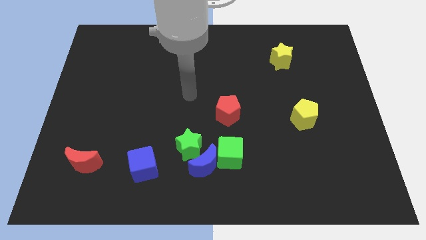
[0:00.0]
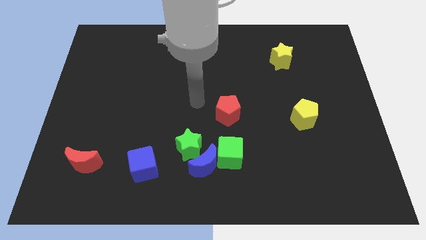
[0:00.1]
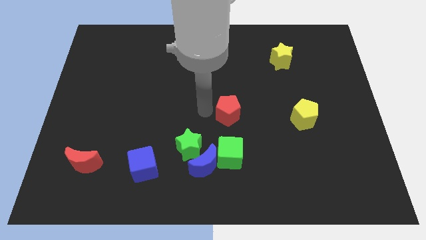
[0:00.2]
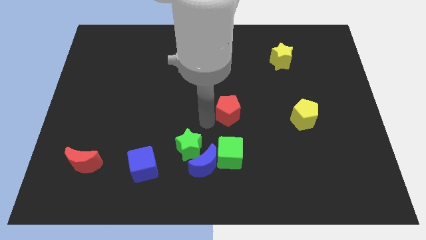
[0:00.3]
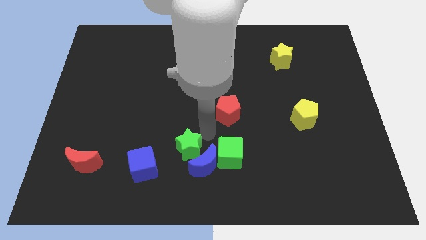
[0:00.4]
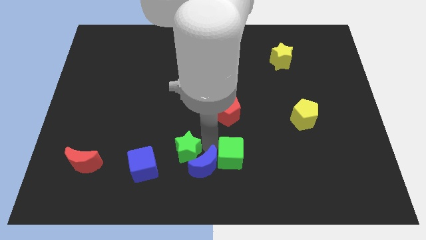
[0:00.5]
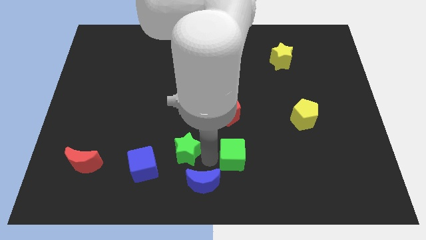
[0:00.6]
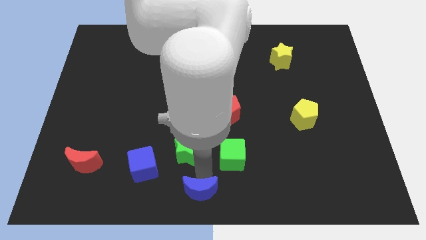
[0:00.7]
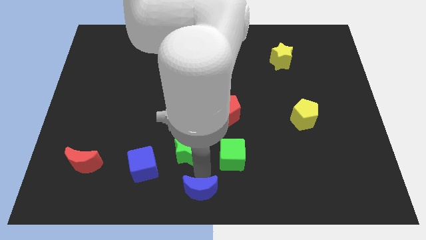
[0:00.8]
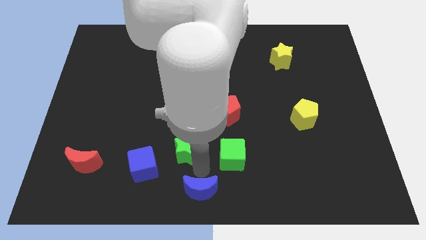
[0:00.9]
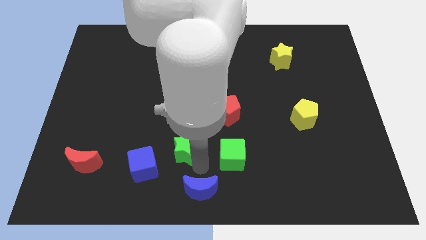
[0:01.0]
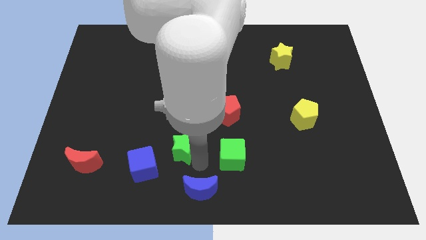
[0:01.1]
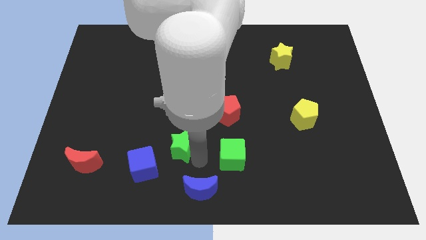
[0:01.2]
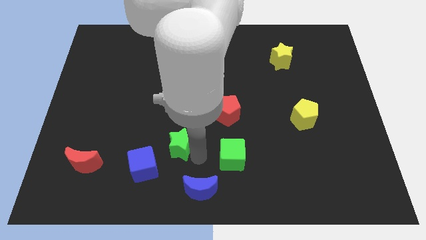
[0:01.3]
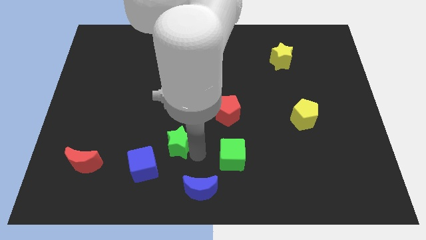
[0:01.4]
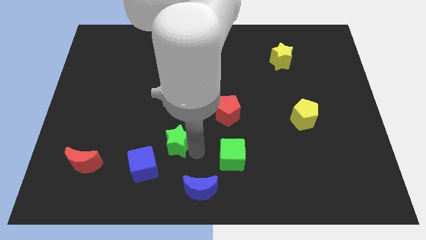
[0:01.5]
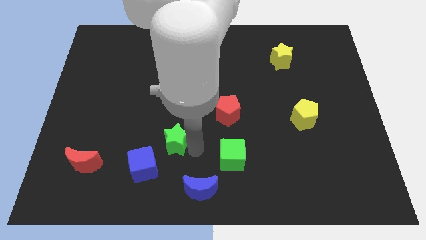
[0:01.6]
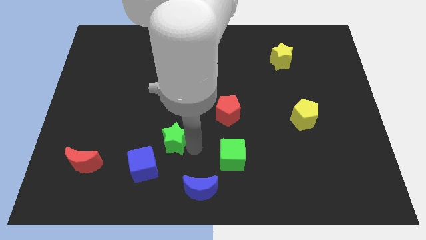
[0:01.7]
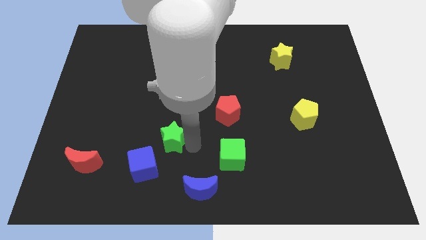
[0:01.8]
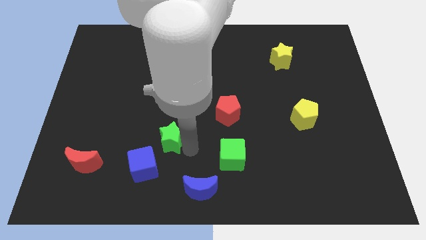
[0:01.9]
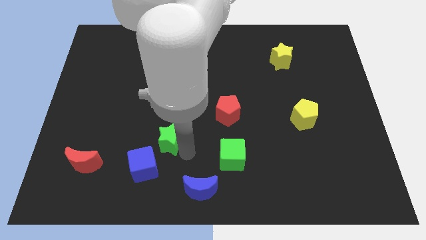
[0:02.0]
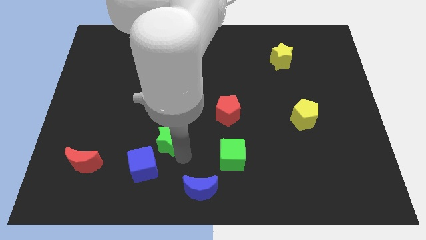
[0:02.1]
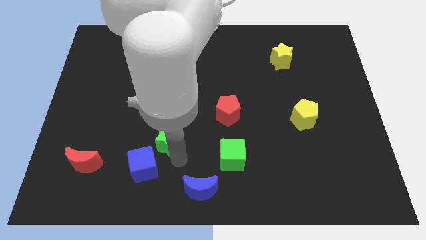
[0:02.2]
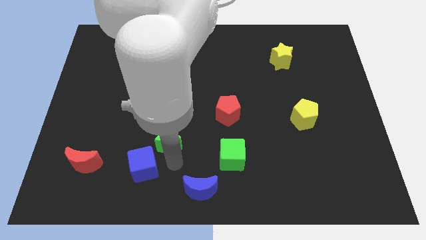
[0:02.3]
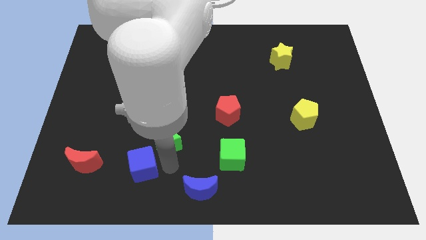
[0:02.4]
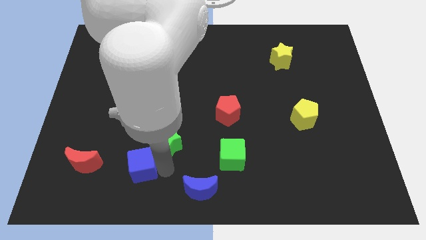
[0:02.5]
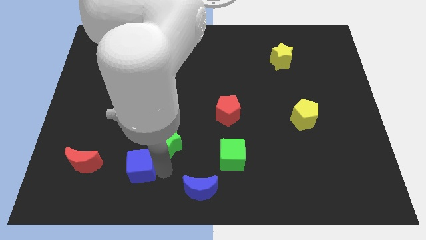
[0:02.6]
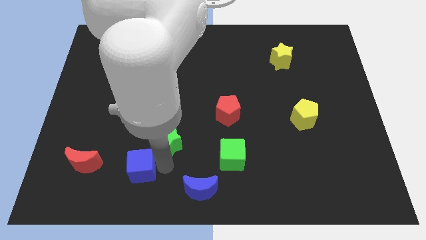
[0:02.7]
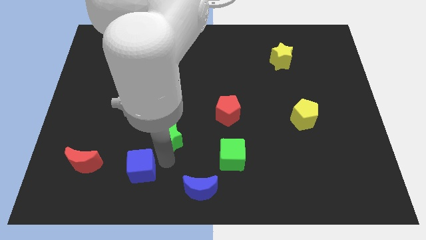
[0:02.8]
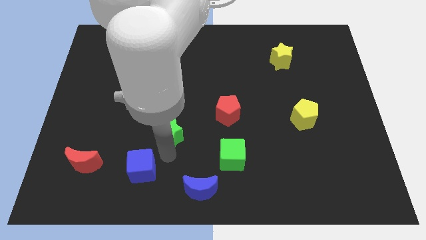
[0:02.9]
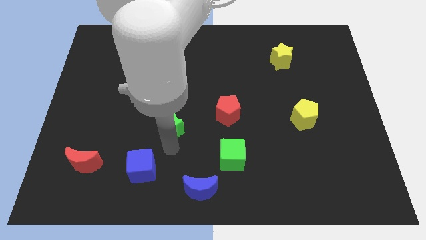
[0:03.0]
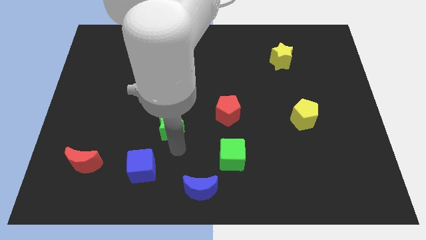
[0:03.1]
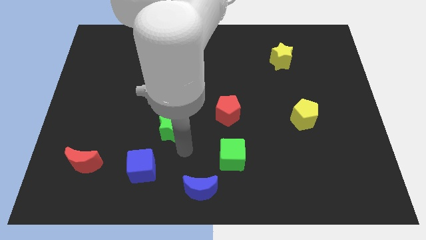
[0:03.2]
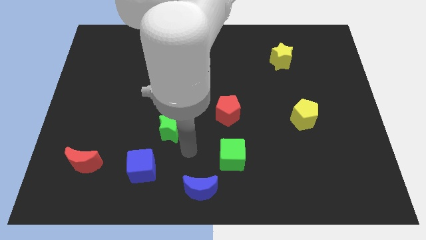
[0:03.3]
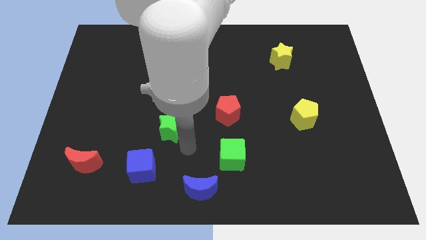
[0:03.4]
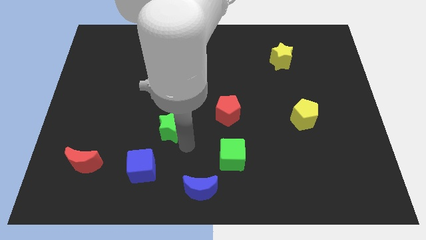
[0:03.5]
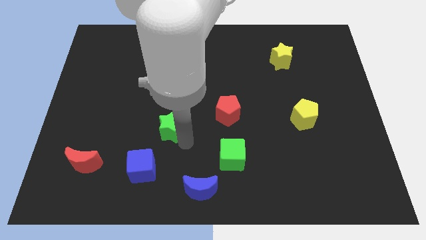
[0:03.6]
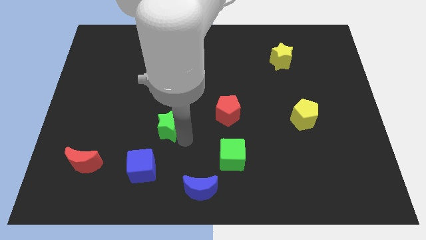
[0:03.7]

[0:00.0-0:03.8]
slide the green star somewhat diagonally upwards and to the left

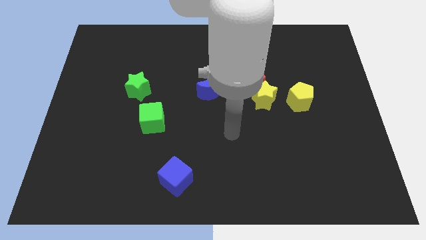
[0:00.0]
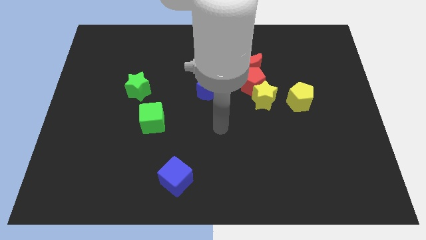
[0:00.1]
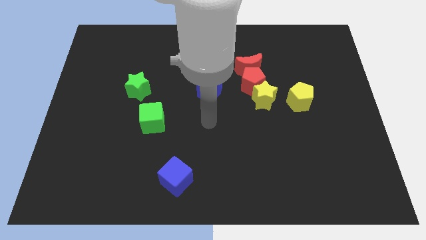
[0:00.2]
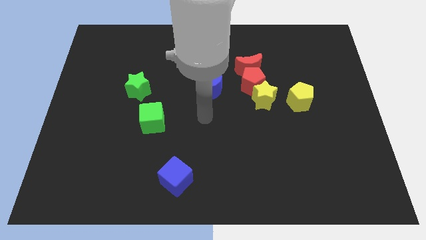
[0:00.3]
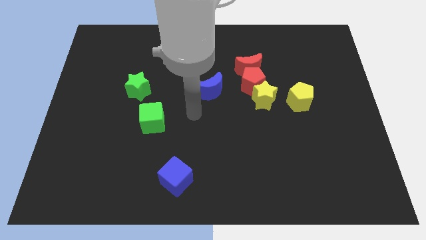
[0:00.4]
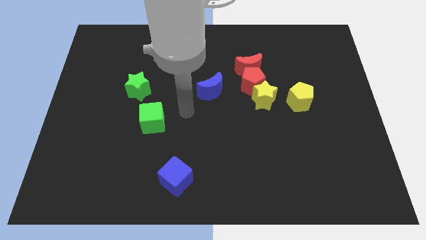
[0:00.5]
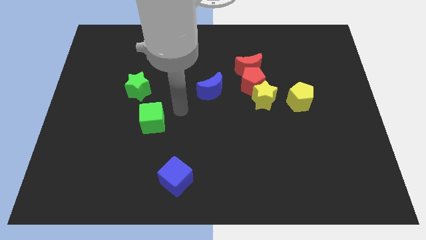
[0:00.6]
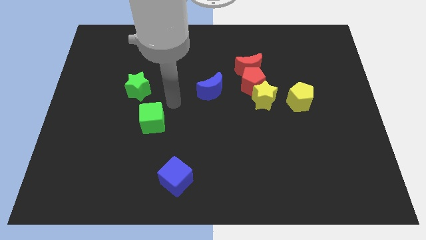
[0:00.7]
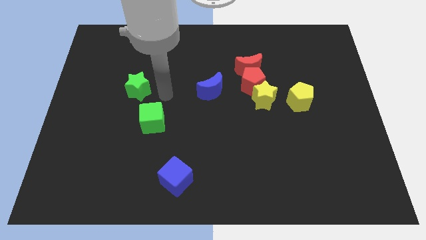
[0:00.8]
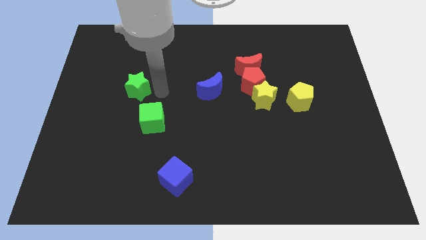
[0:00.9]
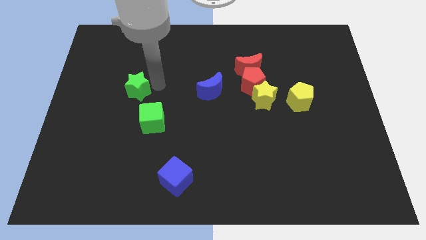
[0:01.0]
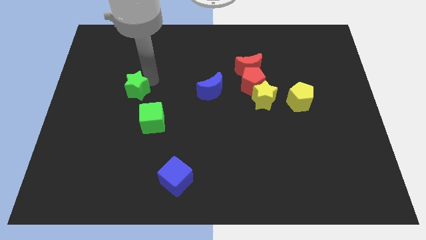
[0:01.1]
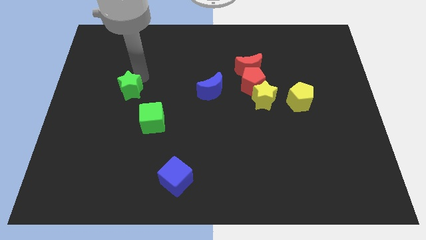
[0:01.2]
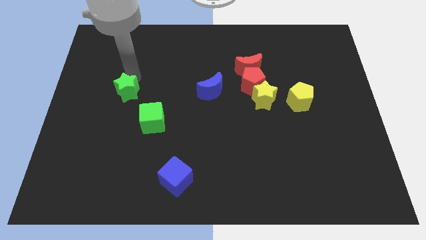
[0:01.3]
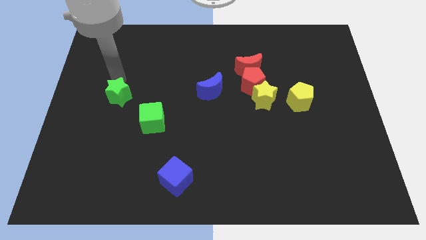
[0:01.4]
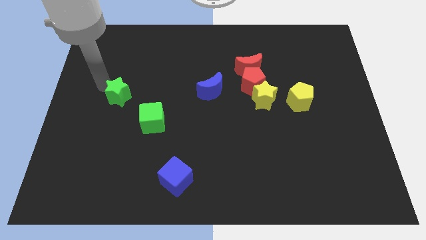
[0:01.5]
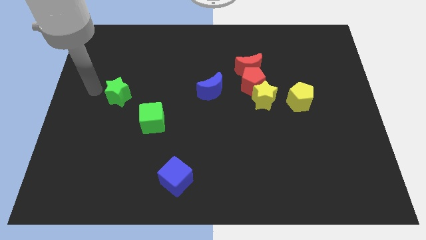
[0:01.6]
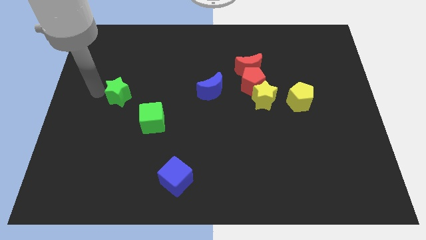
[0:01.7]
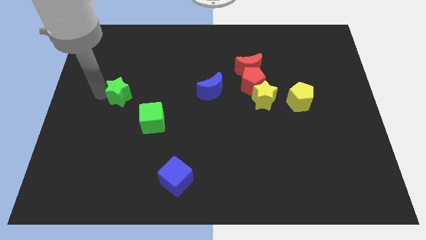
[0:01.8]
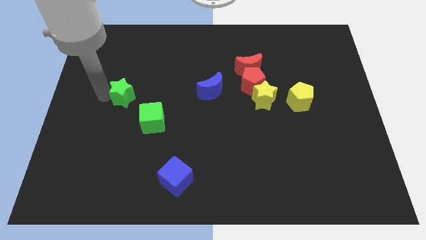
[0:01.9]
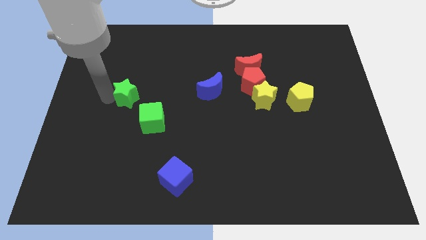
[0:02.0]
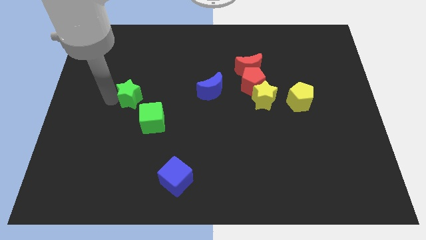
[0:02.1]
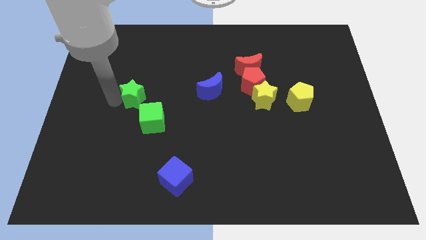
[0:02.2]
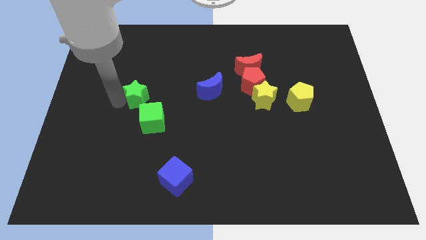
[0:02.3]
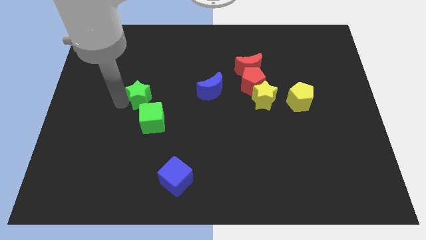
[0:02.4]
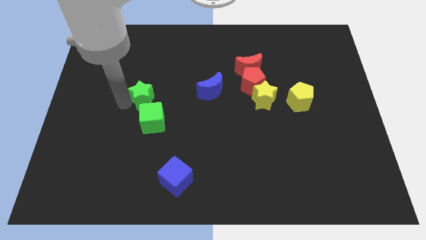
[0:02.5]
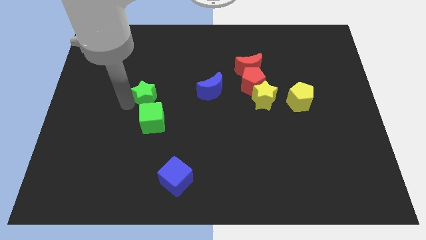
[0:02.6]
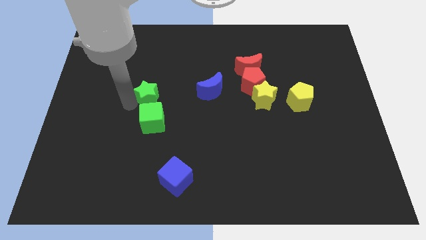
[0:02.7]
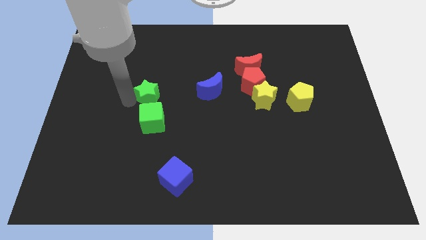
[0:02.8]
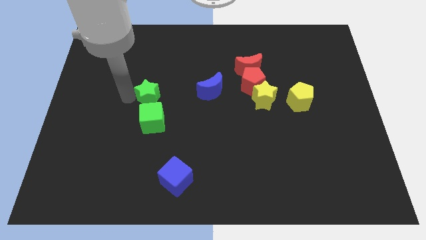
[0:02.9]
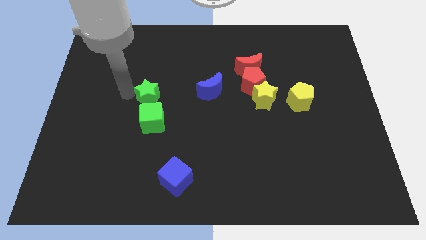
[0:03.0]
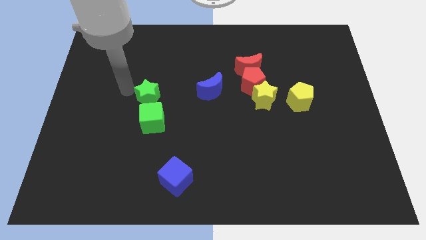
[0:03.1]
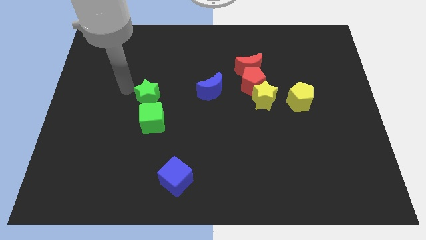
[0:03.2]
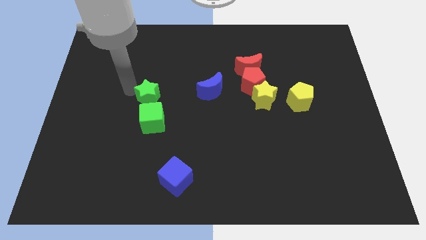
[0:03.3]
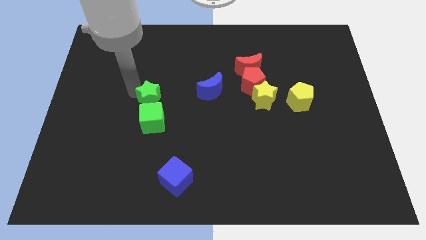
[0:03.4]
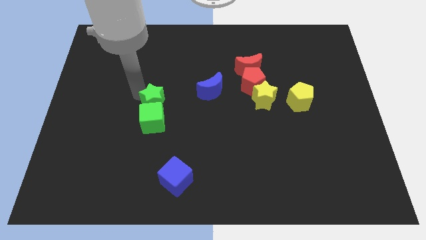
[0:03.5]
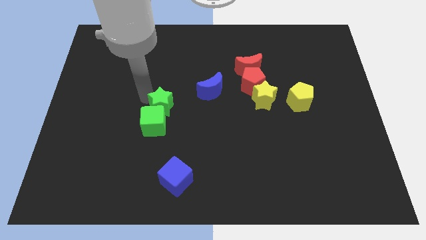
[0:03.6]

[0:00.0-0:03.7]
slightly slide the green star diagonally down and to the right

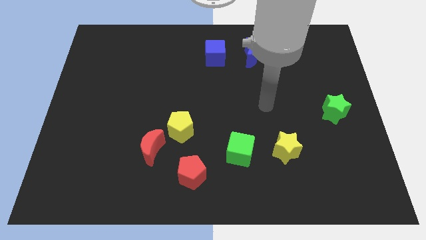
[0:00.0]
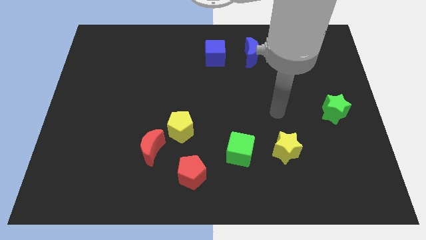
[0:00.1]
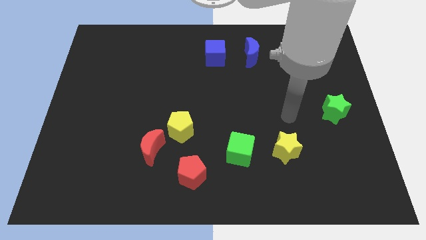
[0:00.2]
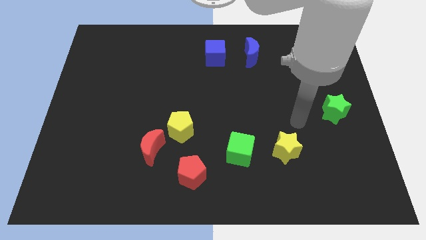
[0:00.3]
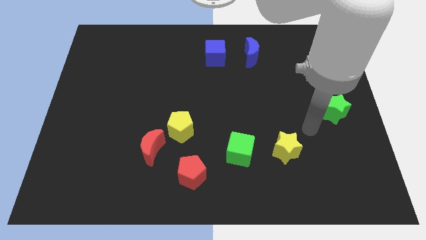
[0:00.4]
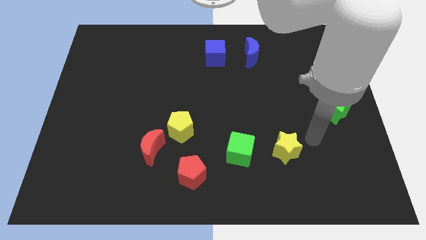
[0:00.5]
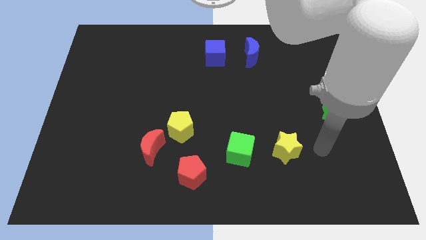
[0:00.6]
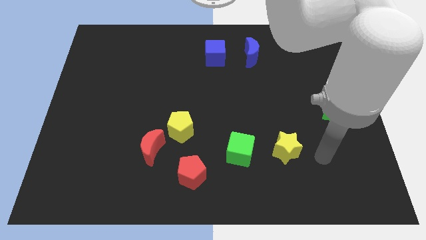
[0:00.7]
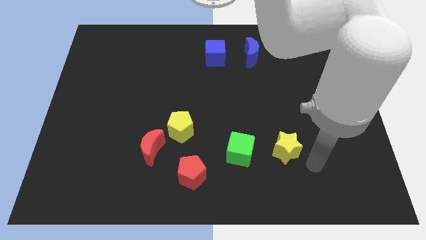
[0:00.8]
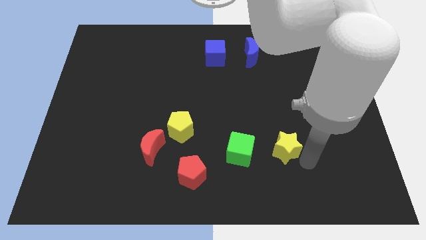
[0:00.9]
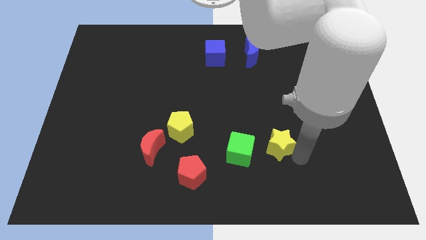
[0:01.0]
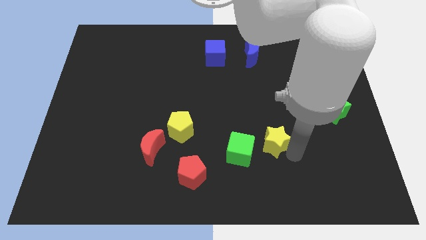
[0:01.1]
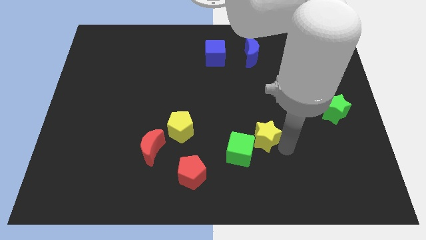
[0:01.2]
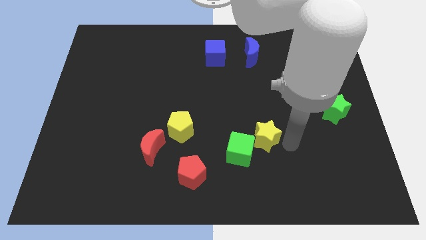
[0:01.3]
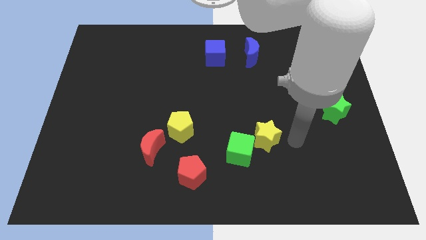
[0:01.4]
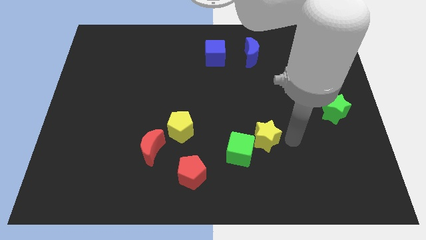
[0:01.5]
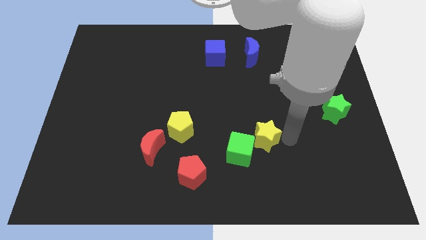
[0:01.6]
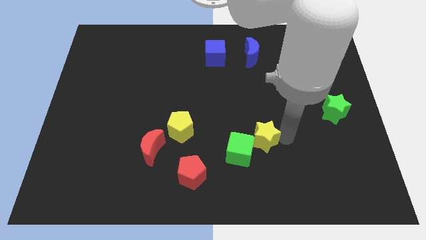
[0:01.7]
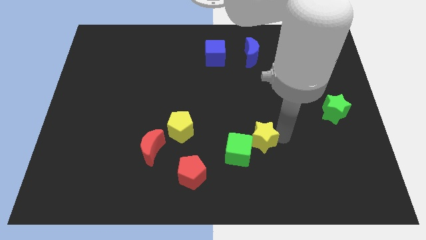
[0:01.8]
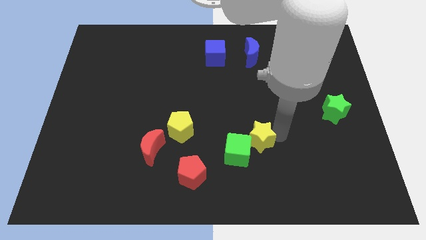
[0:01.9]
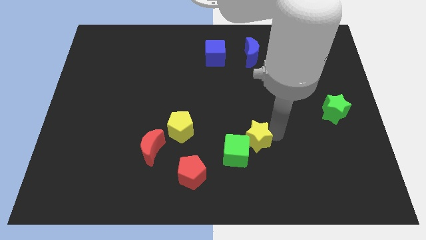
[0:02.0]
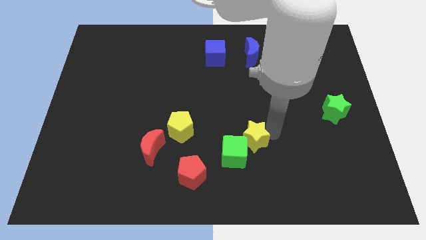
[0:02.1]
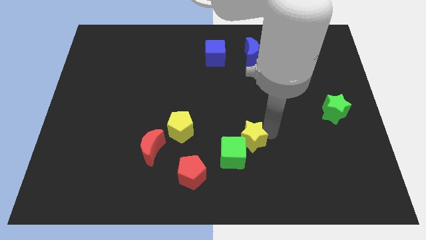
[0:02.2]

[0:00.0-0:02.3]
slightly slide the yellow star to the left
